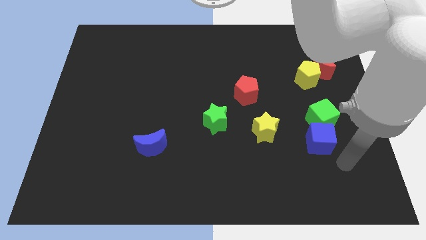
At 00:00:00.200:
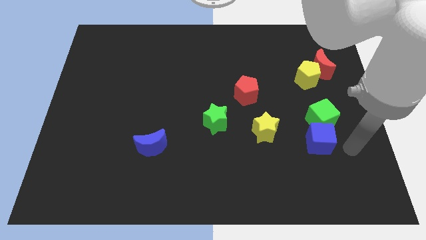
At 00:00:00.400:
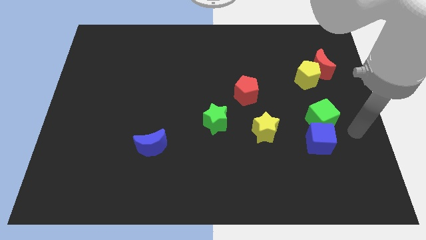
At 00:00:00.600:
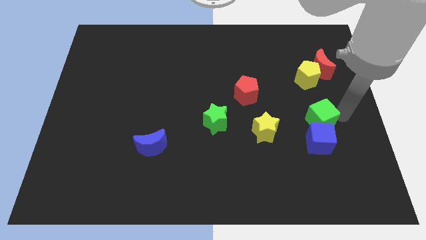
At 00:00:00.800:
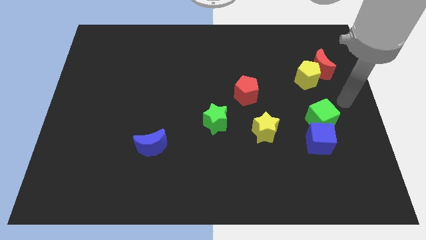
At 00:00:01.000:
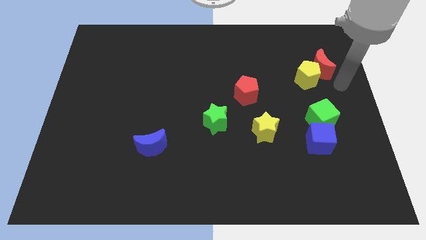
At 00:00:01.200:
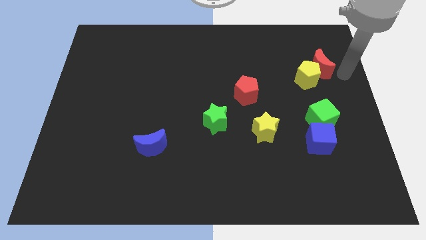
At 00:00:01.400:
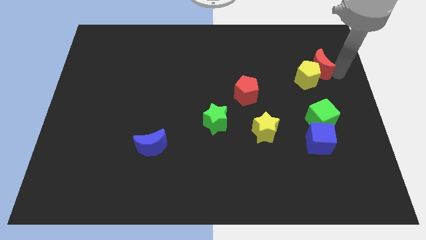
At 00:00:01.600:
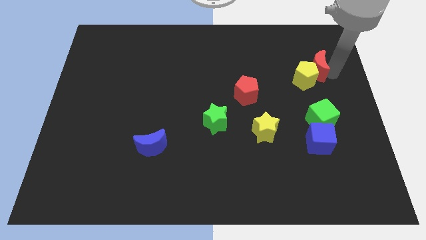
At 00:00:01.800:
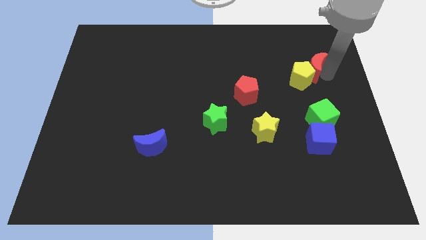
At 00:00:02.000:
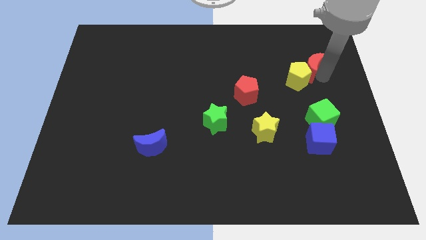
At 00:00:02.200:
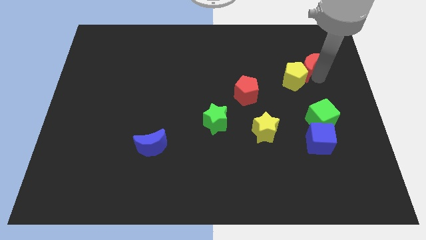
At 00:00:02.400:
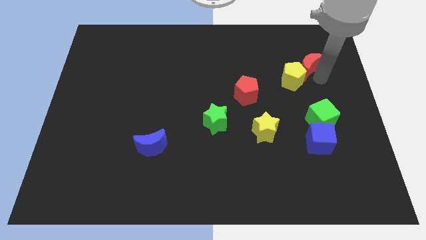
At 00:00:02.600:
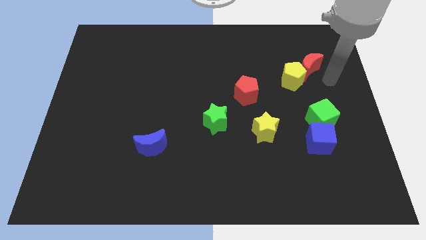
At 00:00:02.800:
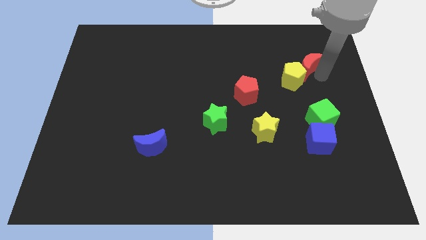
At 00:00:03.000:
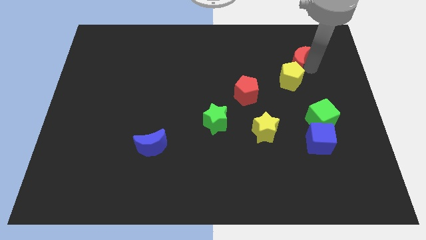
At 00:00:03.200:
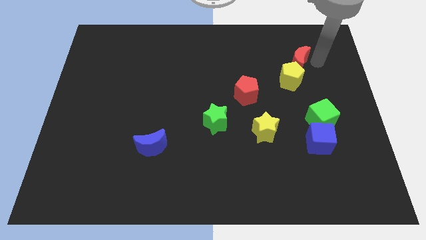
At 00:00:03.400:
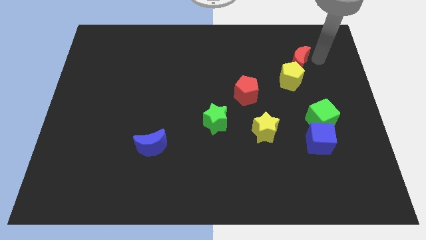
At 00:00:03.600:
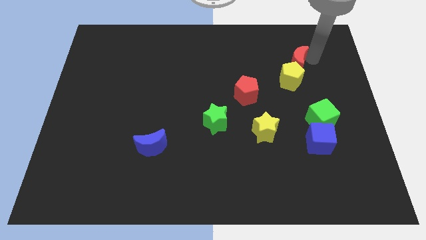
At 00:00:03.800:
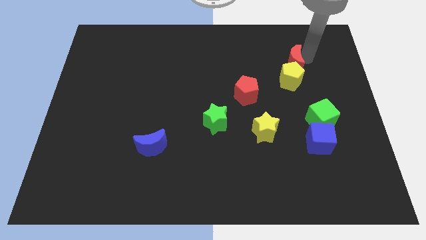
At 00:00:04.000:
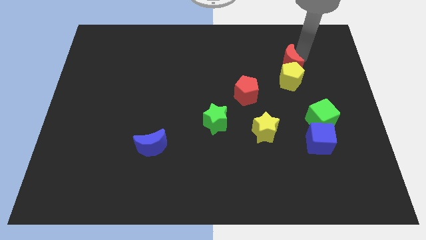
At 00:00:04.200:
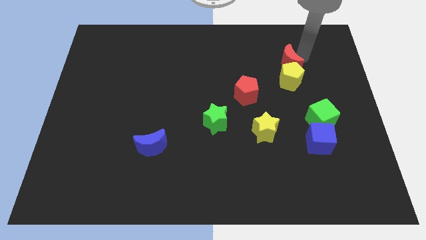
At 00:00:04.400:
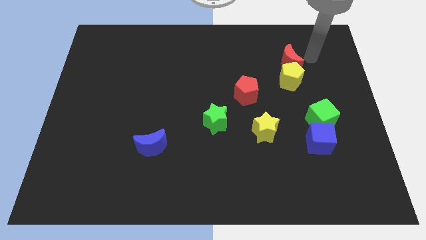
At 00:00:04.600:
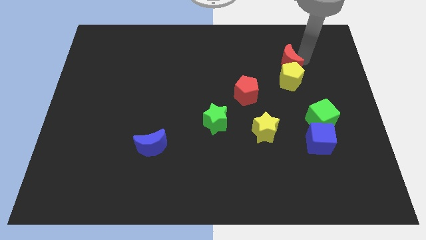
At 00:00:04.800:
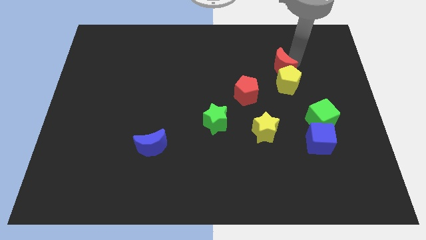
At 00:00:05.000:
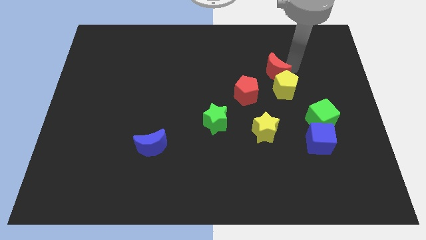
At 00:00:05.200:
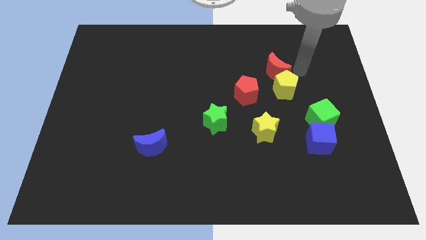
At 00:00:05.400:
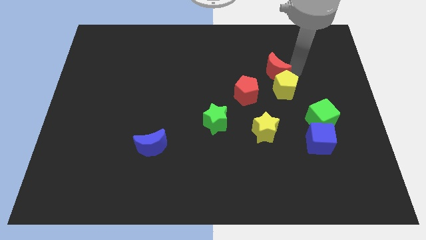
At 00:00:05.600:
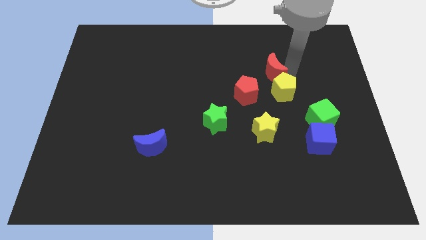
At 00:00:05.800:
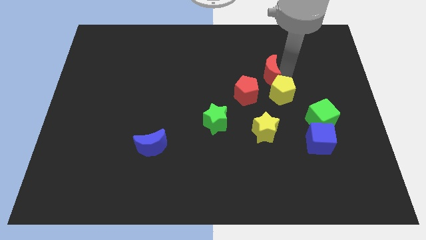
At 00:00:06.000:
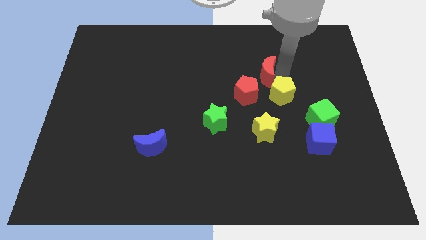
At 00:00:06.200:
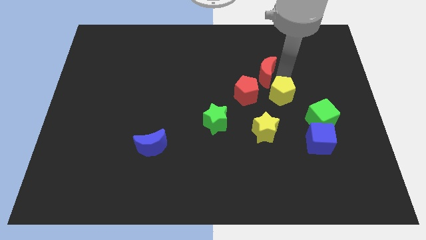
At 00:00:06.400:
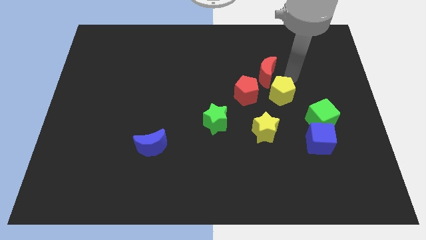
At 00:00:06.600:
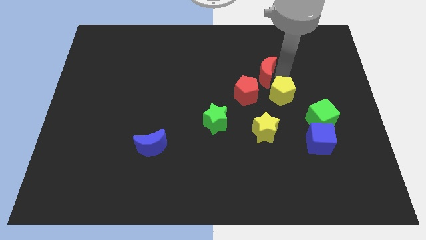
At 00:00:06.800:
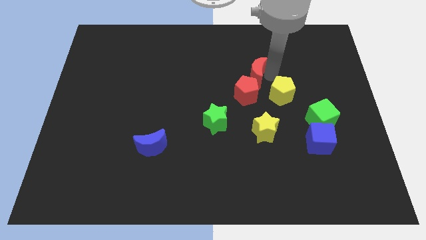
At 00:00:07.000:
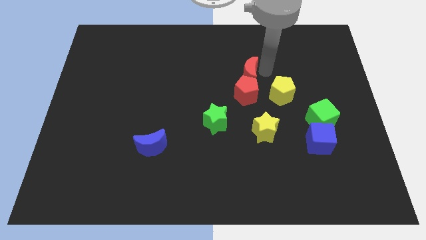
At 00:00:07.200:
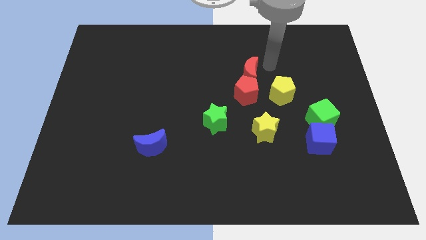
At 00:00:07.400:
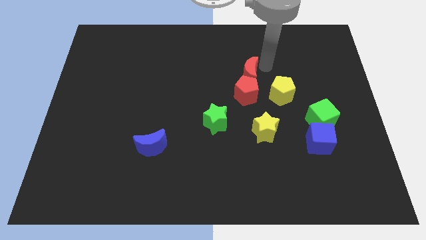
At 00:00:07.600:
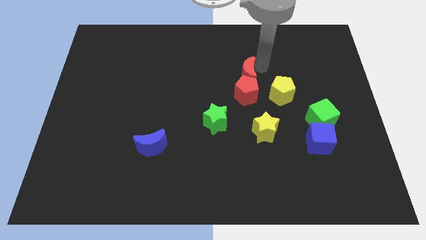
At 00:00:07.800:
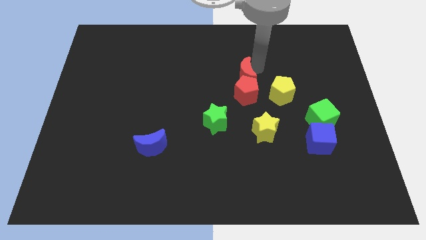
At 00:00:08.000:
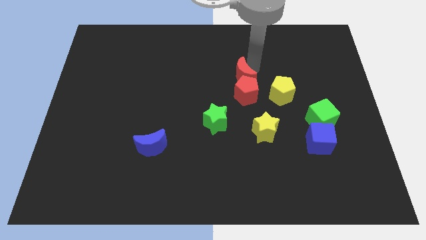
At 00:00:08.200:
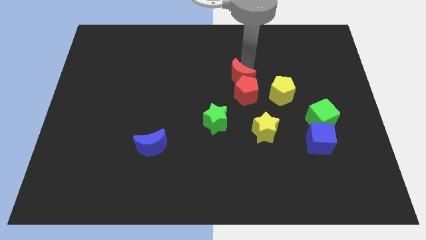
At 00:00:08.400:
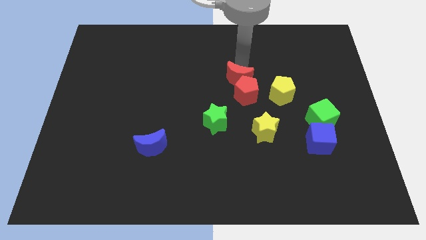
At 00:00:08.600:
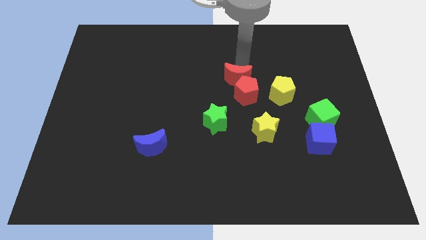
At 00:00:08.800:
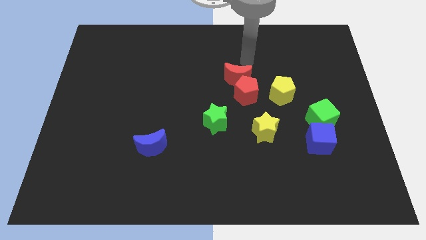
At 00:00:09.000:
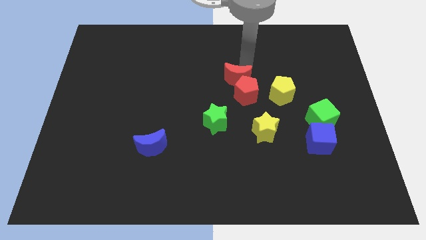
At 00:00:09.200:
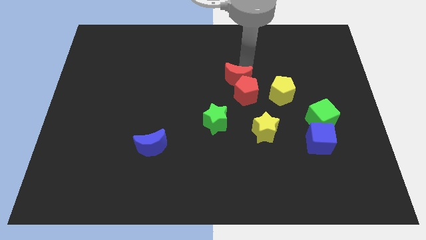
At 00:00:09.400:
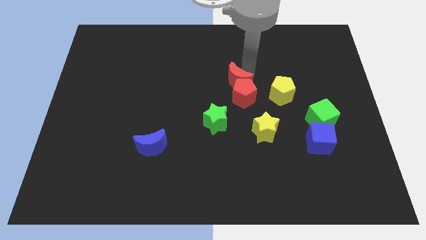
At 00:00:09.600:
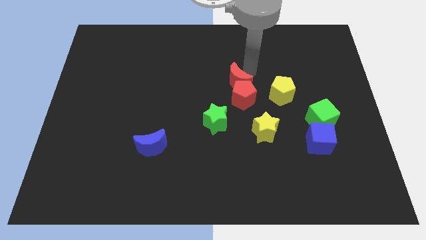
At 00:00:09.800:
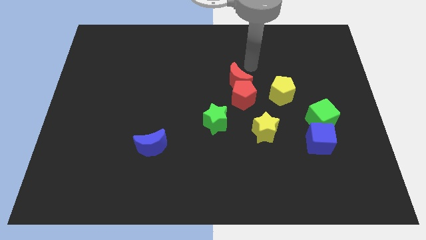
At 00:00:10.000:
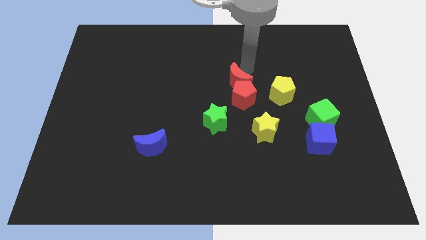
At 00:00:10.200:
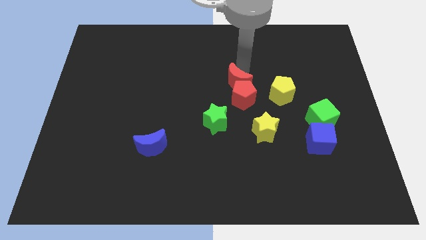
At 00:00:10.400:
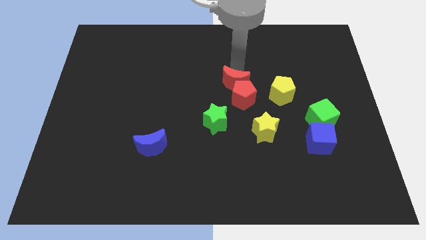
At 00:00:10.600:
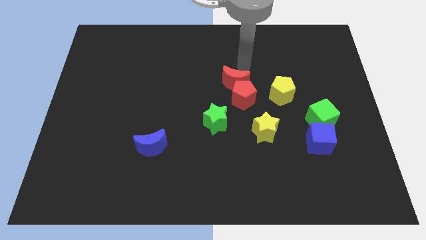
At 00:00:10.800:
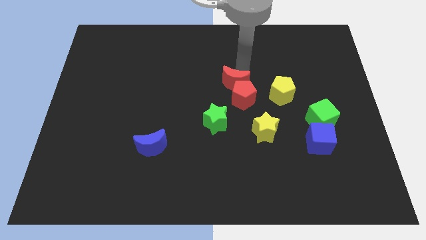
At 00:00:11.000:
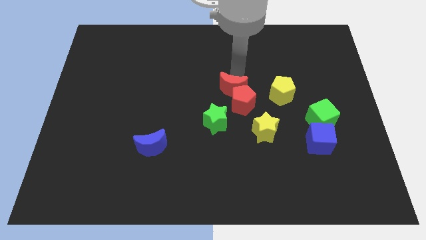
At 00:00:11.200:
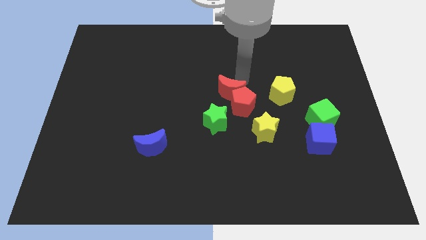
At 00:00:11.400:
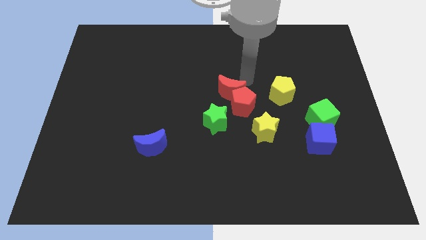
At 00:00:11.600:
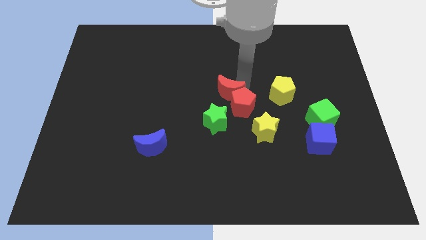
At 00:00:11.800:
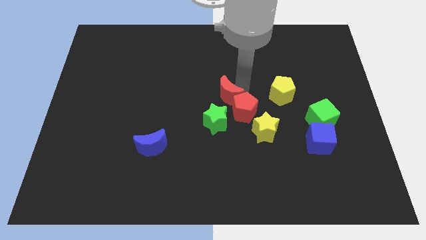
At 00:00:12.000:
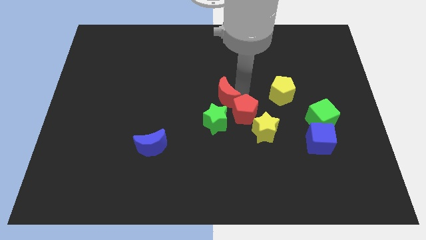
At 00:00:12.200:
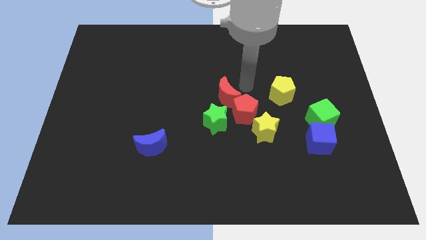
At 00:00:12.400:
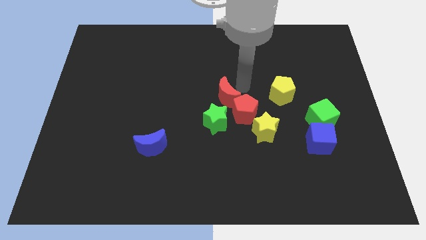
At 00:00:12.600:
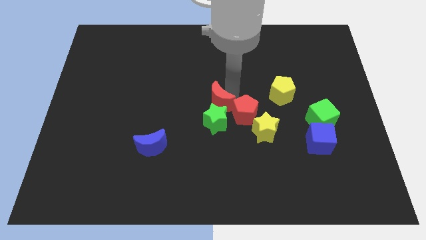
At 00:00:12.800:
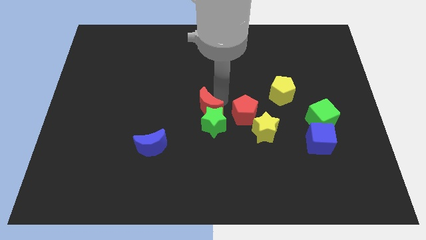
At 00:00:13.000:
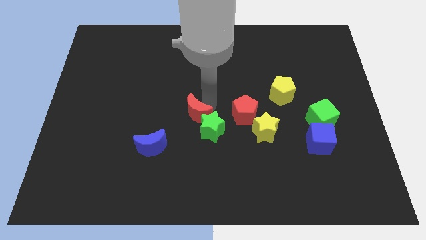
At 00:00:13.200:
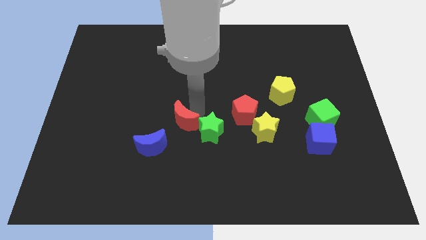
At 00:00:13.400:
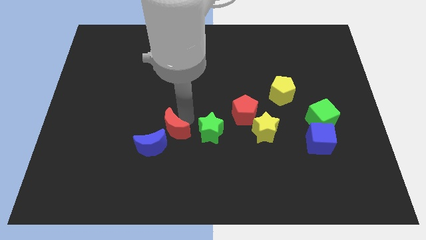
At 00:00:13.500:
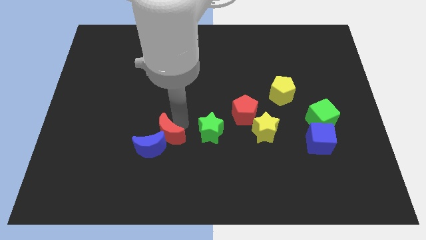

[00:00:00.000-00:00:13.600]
push the red moon towards the blue moon

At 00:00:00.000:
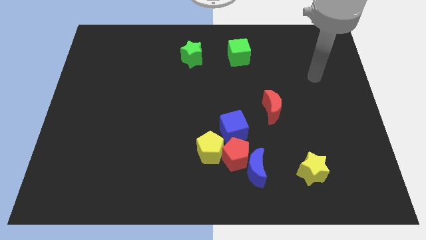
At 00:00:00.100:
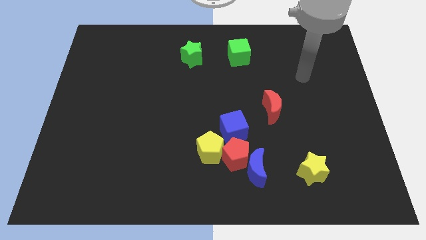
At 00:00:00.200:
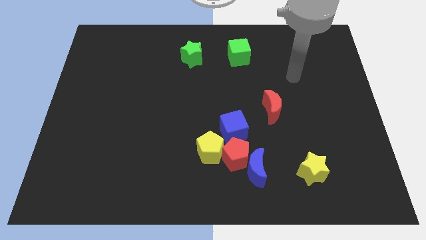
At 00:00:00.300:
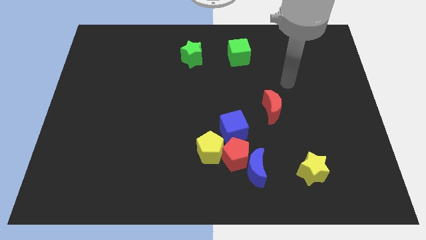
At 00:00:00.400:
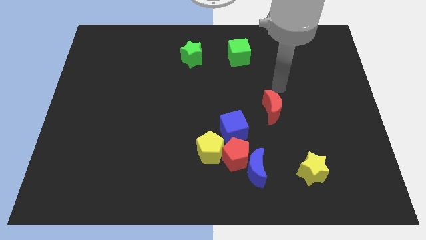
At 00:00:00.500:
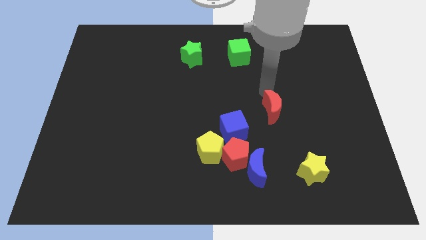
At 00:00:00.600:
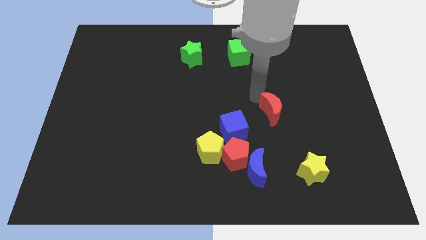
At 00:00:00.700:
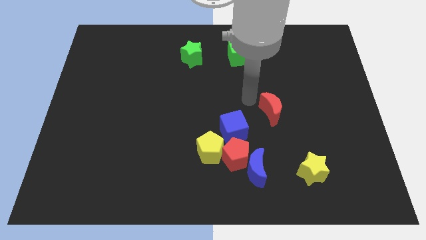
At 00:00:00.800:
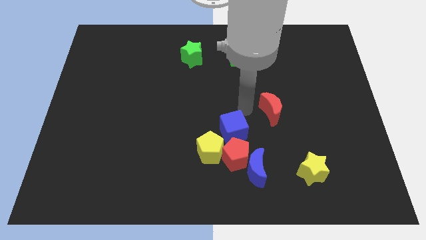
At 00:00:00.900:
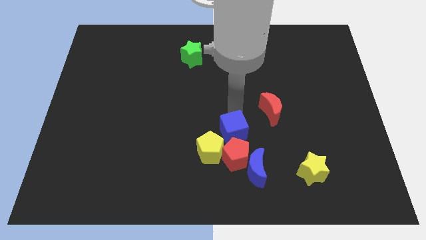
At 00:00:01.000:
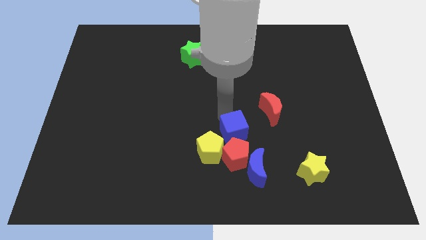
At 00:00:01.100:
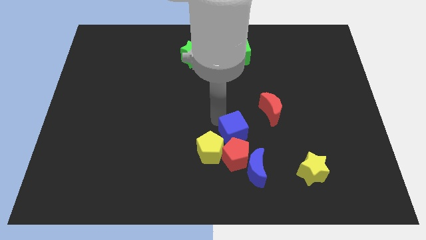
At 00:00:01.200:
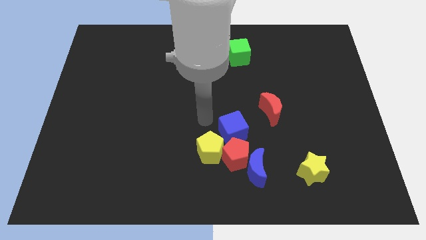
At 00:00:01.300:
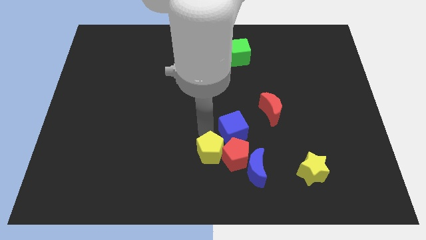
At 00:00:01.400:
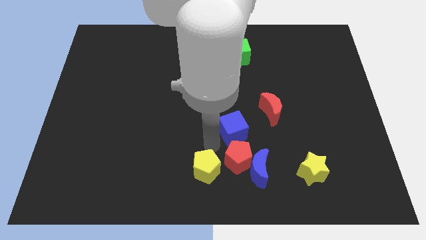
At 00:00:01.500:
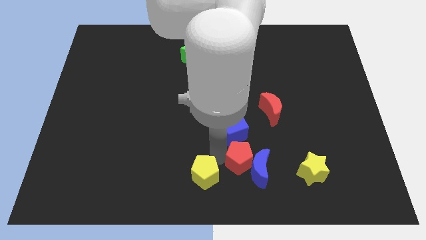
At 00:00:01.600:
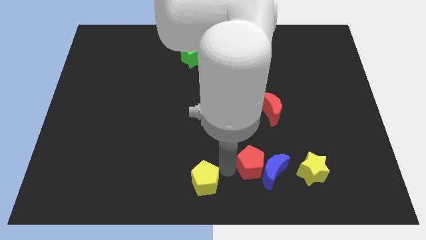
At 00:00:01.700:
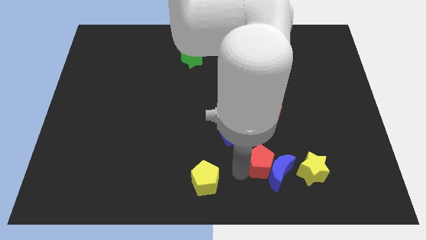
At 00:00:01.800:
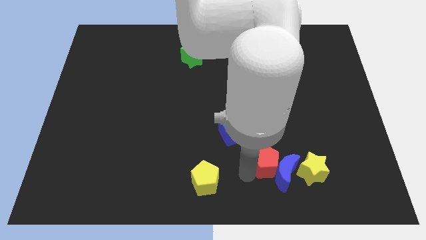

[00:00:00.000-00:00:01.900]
push the blue moon towards the yellow star
